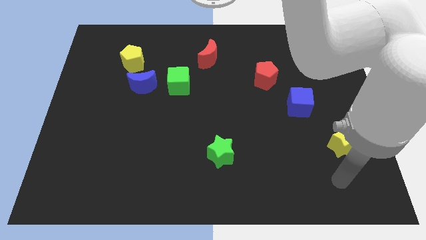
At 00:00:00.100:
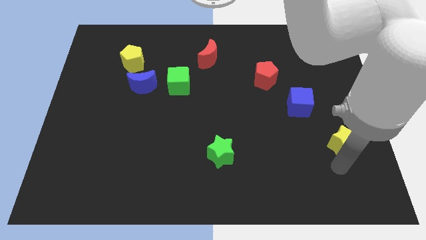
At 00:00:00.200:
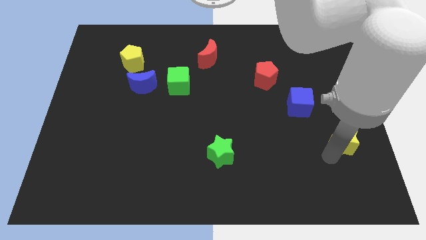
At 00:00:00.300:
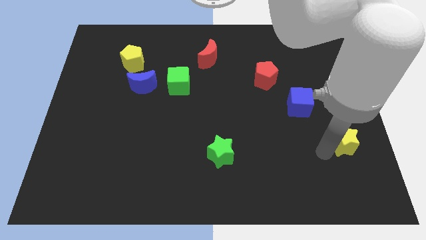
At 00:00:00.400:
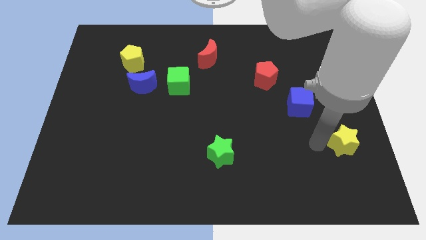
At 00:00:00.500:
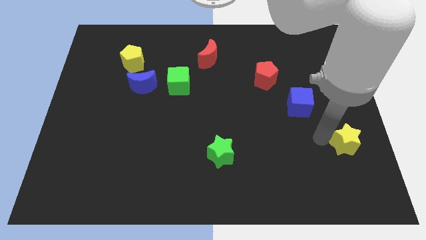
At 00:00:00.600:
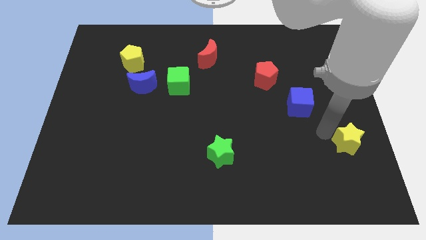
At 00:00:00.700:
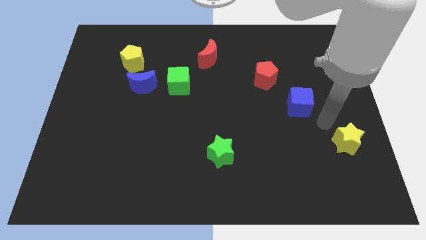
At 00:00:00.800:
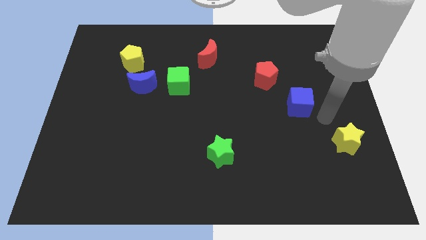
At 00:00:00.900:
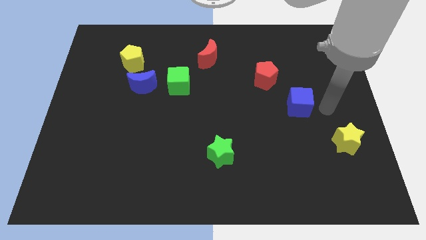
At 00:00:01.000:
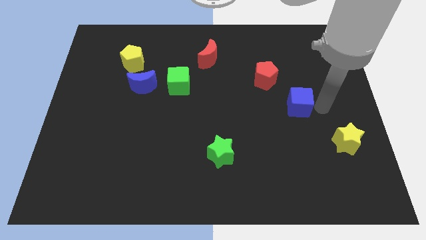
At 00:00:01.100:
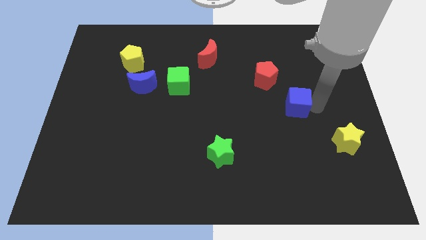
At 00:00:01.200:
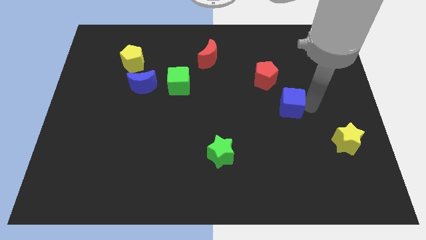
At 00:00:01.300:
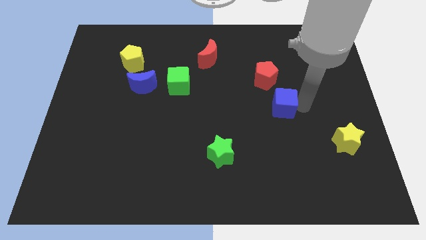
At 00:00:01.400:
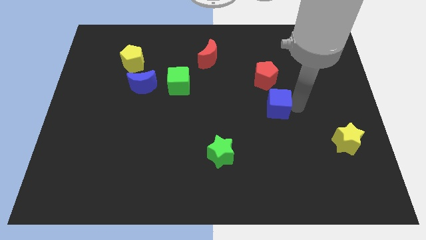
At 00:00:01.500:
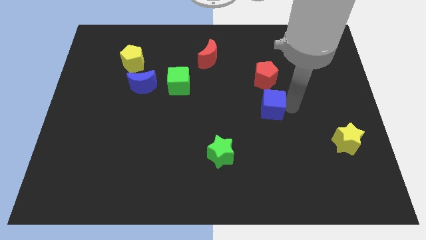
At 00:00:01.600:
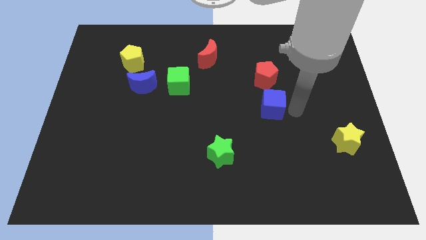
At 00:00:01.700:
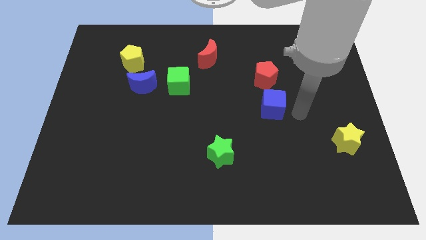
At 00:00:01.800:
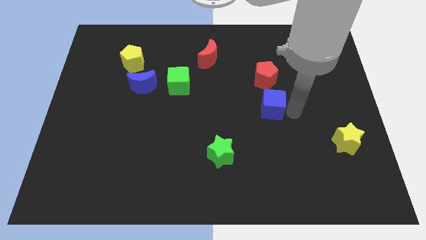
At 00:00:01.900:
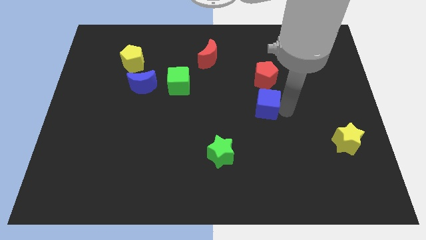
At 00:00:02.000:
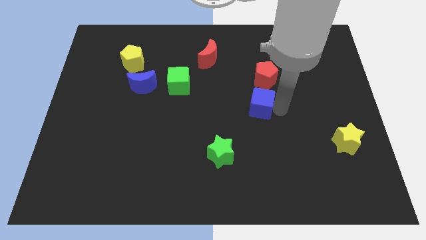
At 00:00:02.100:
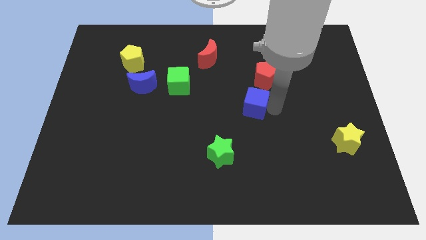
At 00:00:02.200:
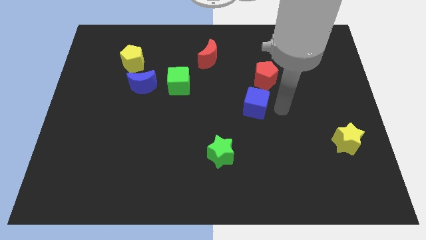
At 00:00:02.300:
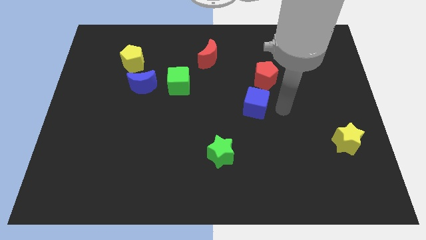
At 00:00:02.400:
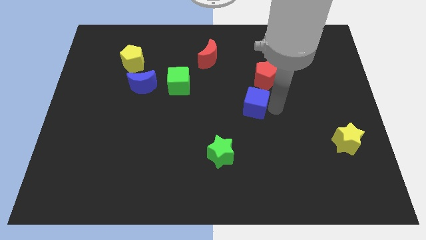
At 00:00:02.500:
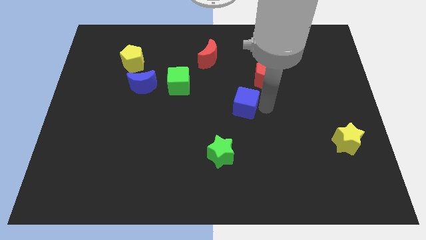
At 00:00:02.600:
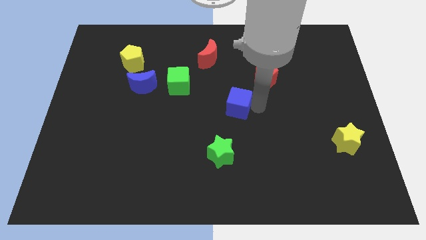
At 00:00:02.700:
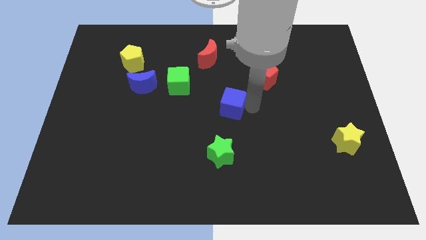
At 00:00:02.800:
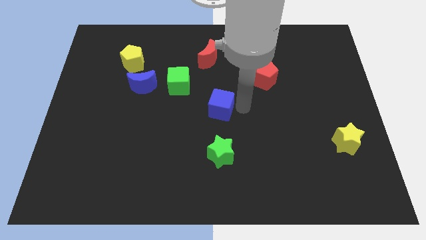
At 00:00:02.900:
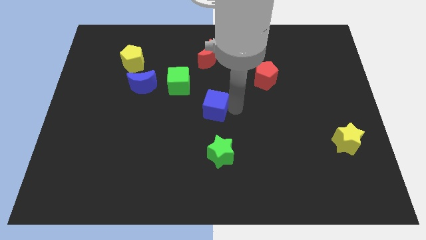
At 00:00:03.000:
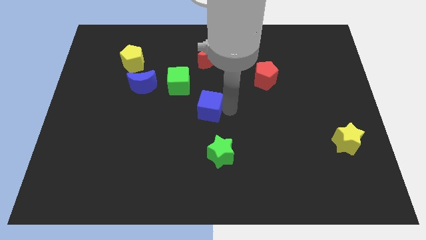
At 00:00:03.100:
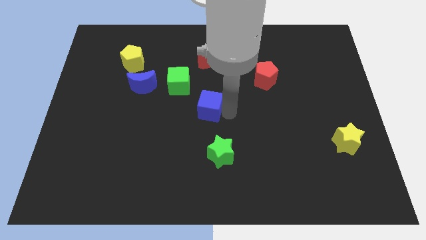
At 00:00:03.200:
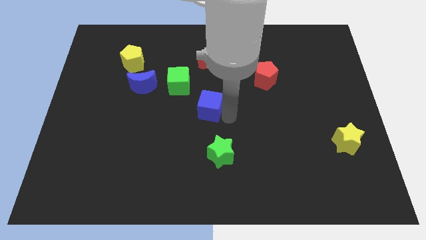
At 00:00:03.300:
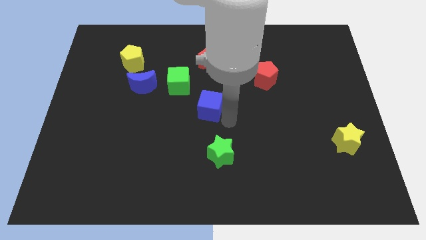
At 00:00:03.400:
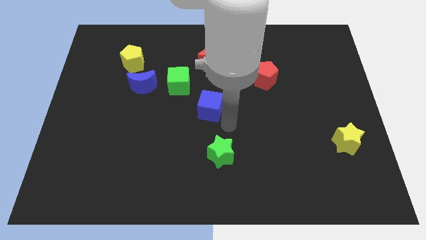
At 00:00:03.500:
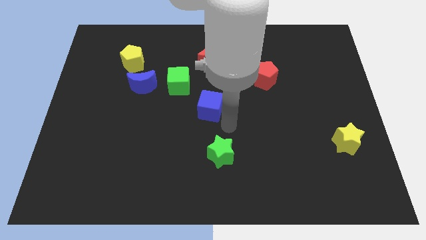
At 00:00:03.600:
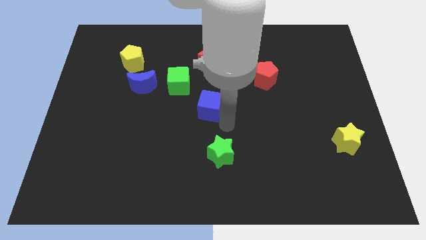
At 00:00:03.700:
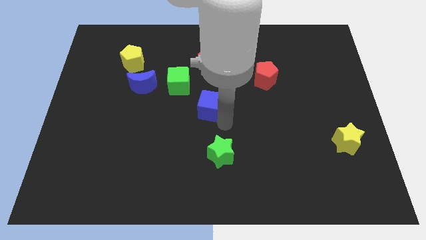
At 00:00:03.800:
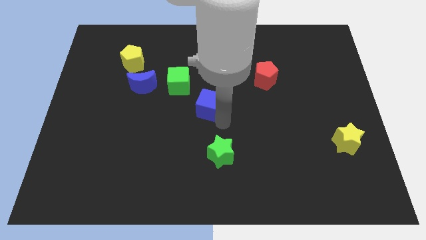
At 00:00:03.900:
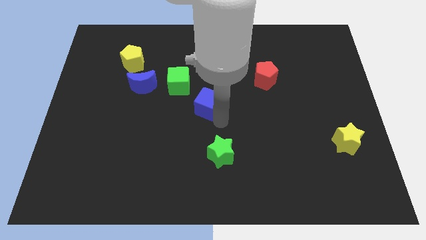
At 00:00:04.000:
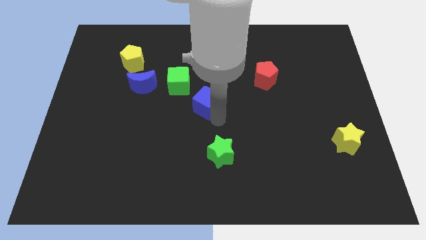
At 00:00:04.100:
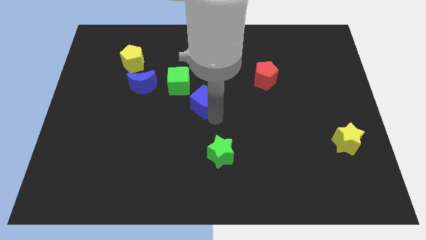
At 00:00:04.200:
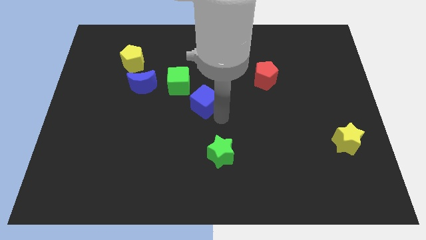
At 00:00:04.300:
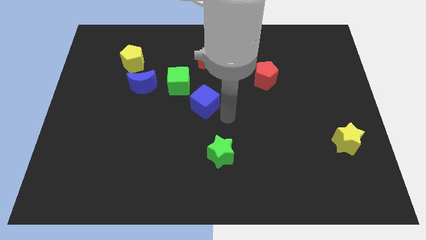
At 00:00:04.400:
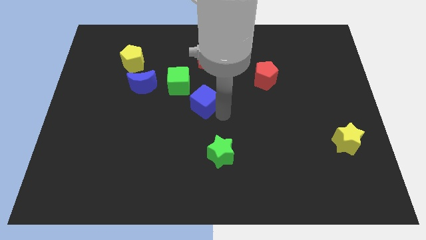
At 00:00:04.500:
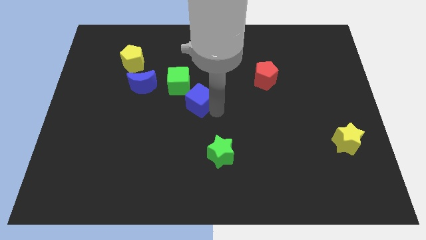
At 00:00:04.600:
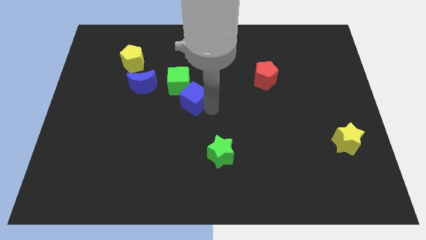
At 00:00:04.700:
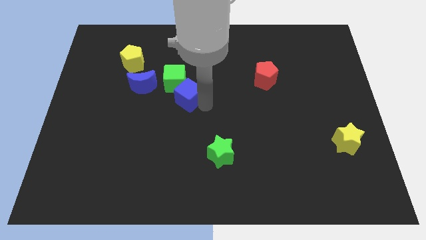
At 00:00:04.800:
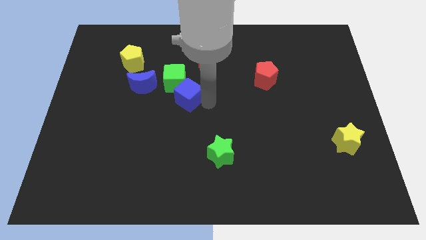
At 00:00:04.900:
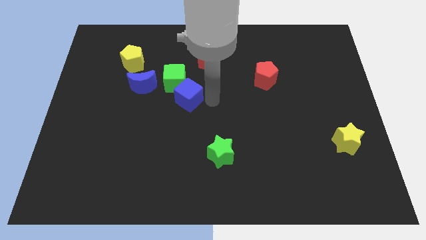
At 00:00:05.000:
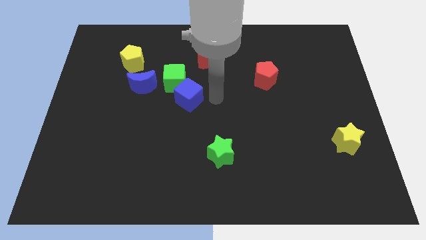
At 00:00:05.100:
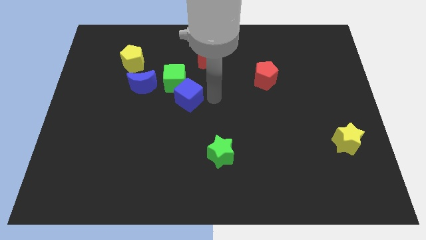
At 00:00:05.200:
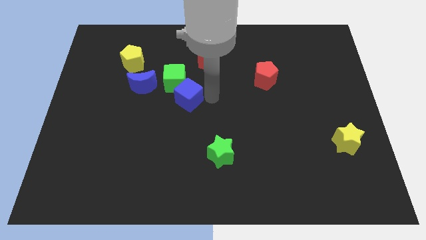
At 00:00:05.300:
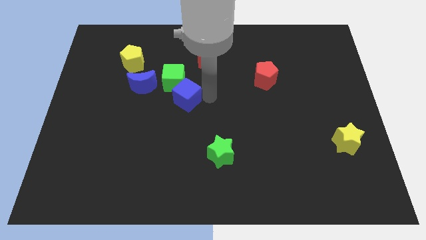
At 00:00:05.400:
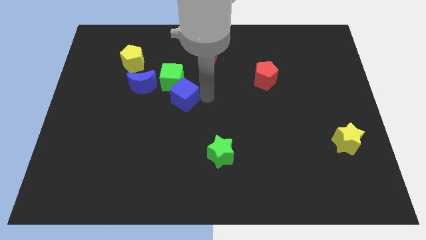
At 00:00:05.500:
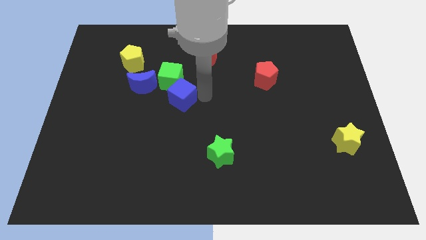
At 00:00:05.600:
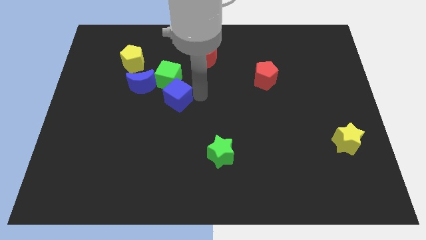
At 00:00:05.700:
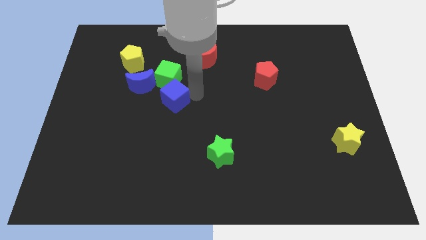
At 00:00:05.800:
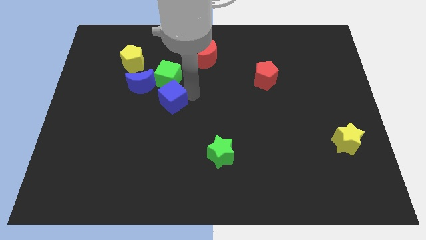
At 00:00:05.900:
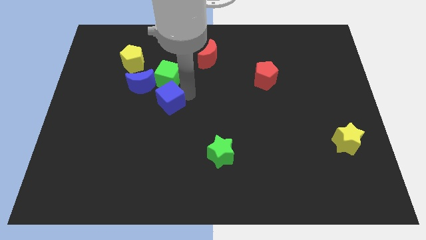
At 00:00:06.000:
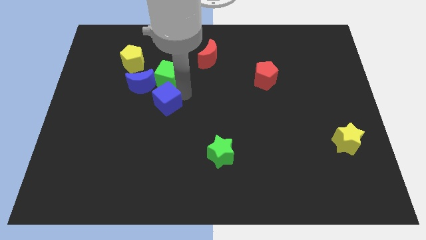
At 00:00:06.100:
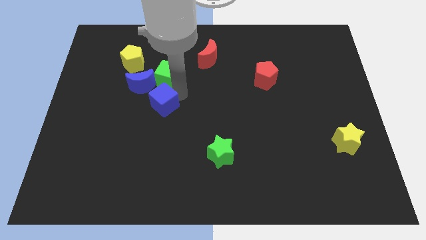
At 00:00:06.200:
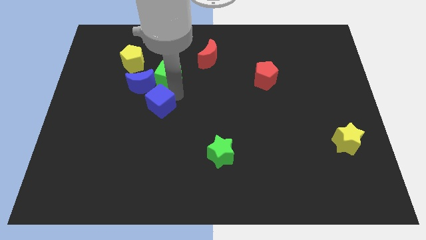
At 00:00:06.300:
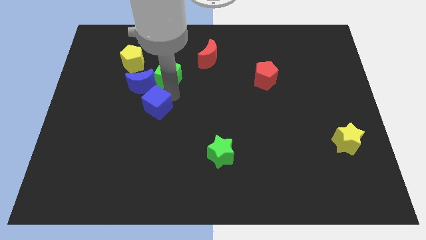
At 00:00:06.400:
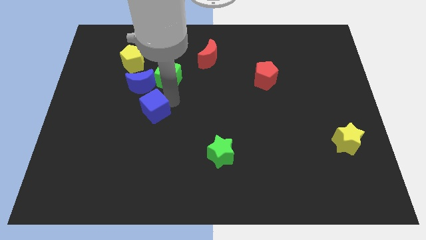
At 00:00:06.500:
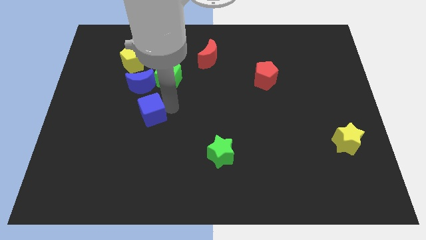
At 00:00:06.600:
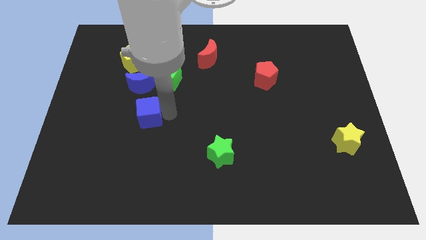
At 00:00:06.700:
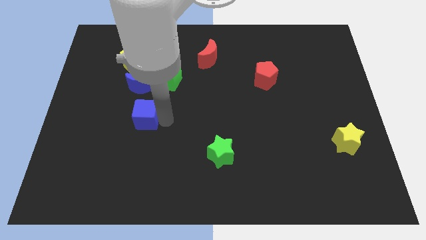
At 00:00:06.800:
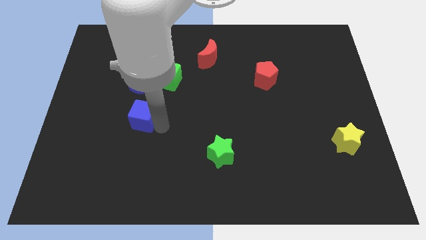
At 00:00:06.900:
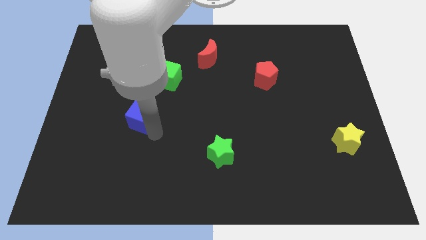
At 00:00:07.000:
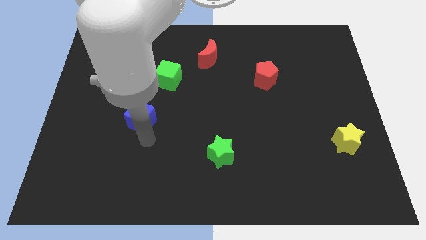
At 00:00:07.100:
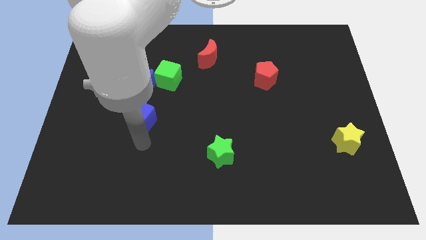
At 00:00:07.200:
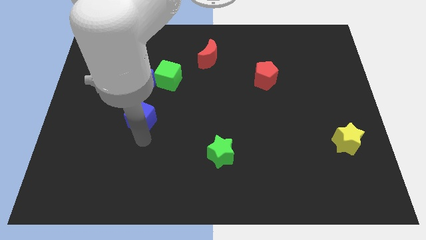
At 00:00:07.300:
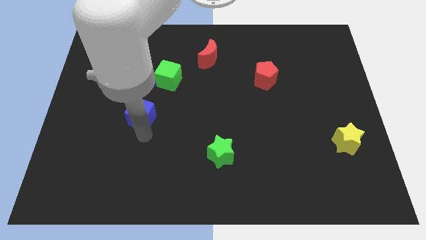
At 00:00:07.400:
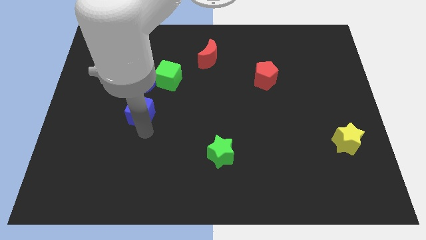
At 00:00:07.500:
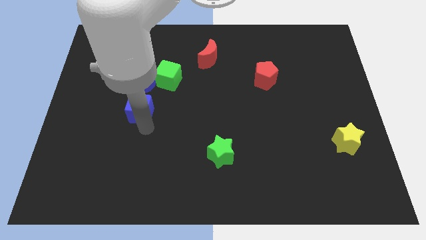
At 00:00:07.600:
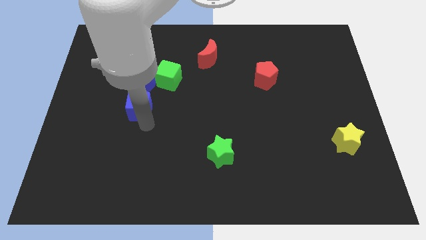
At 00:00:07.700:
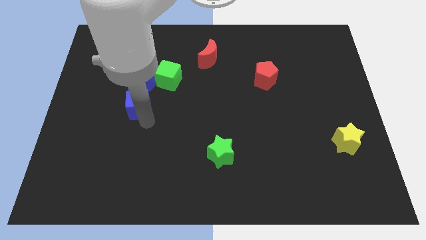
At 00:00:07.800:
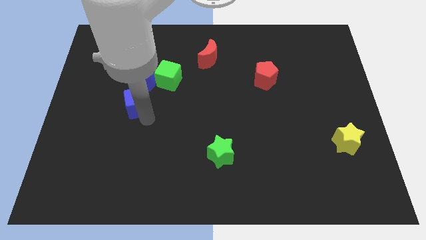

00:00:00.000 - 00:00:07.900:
put the blue cube close to the blue moon
